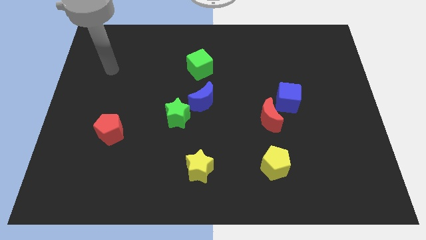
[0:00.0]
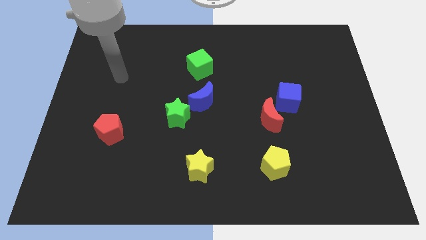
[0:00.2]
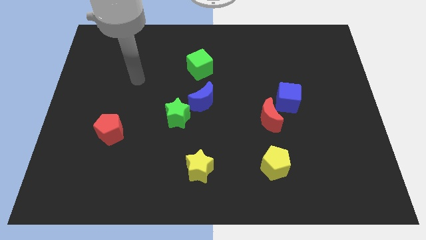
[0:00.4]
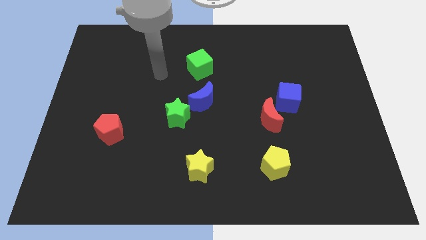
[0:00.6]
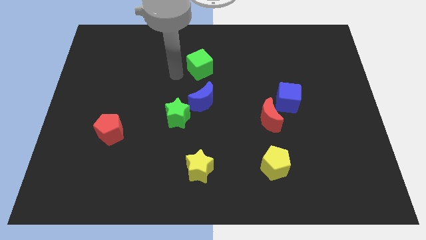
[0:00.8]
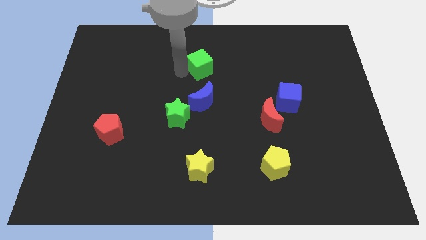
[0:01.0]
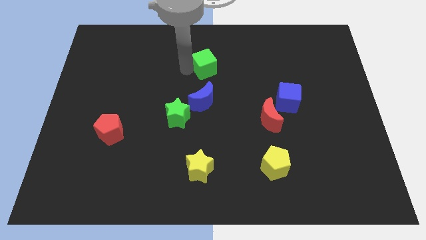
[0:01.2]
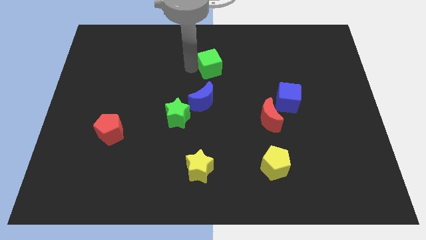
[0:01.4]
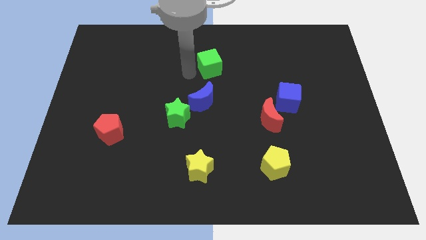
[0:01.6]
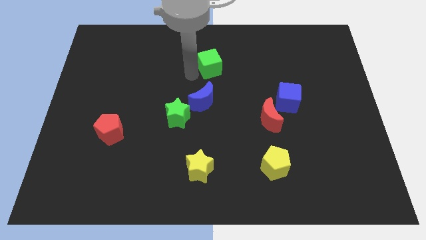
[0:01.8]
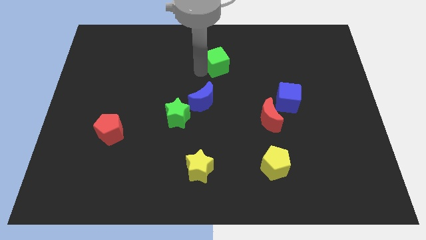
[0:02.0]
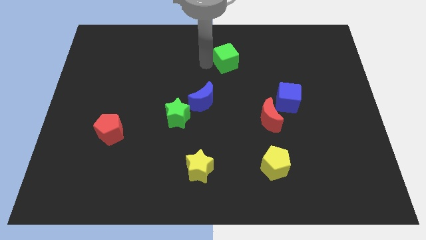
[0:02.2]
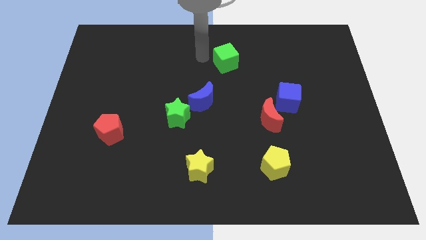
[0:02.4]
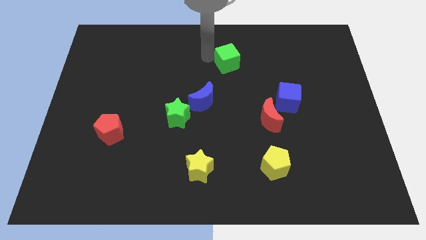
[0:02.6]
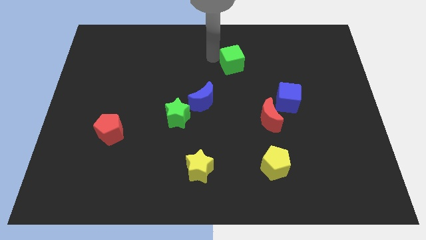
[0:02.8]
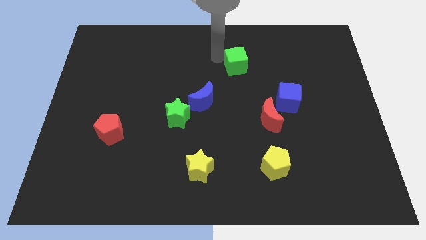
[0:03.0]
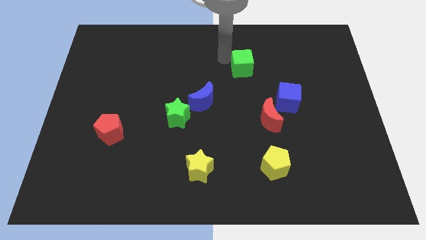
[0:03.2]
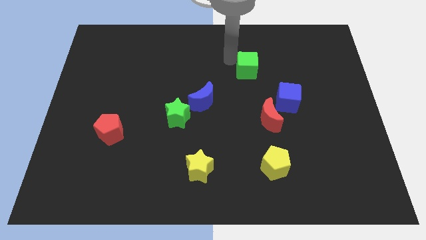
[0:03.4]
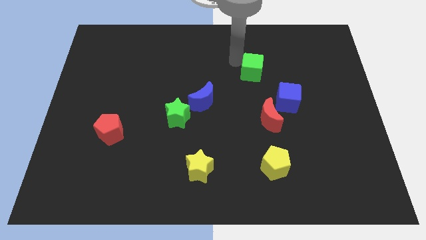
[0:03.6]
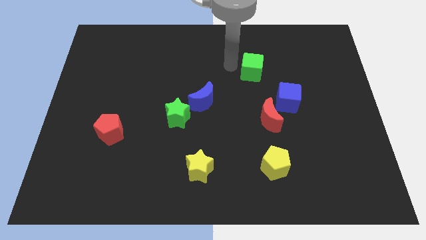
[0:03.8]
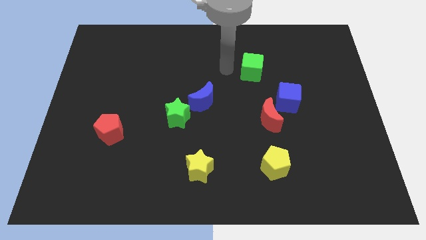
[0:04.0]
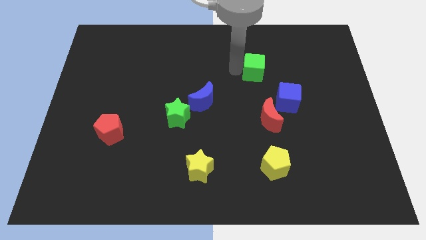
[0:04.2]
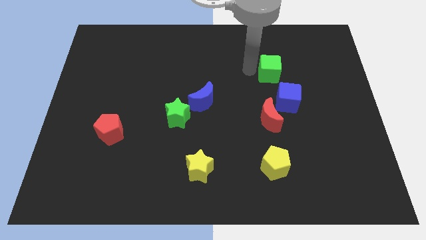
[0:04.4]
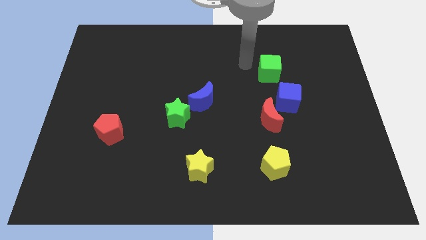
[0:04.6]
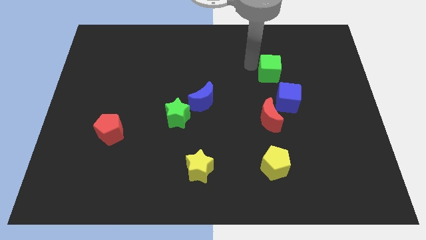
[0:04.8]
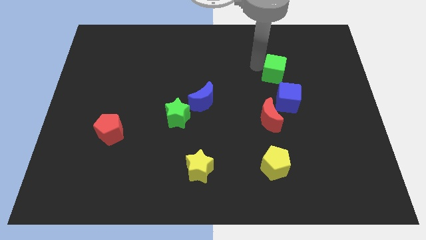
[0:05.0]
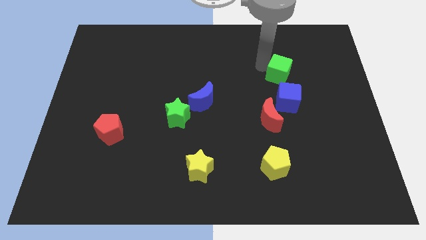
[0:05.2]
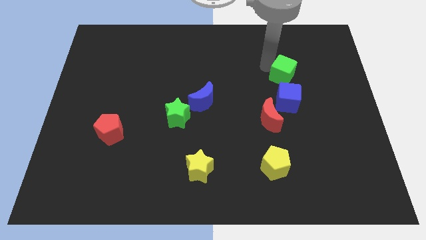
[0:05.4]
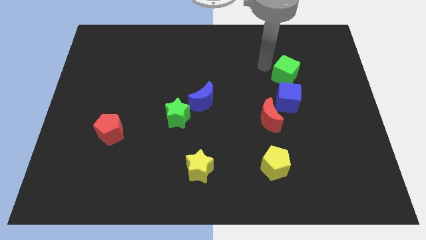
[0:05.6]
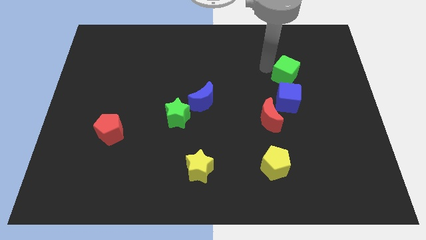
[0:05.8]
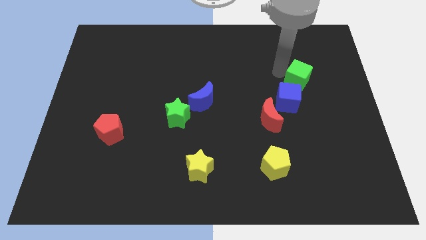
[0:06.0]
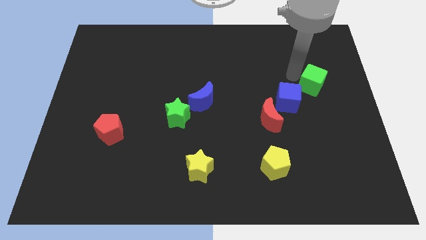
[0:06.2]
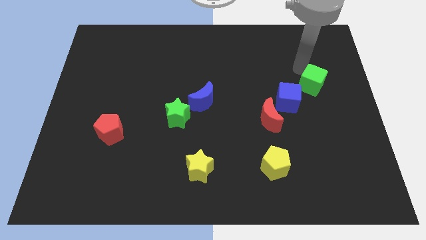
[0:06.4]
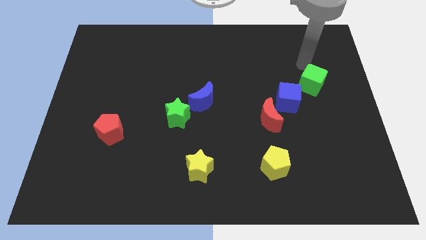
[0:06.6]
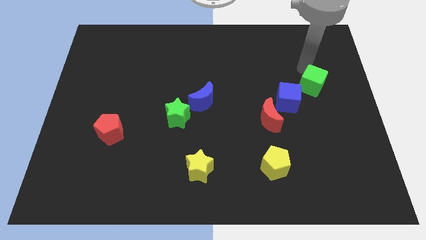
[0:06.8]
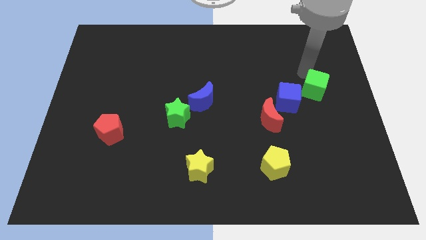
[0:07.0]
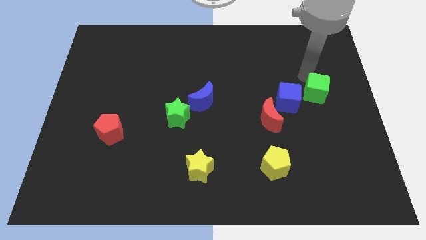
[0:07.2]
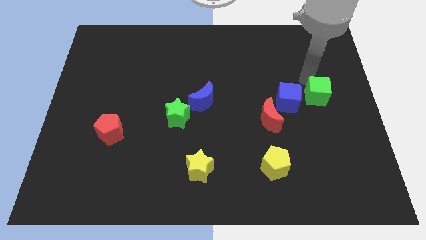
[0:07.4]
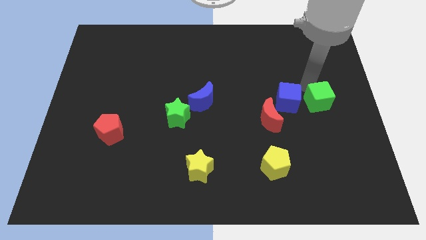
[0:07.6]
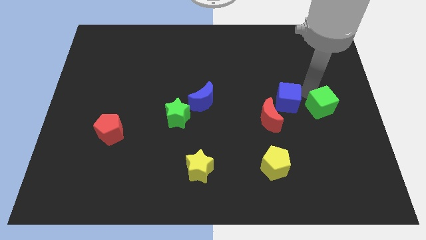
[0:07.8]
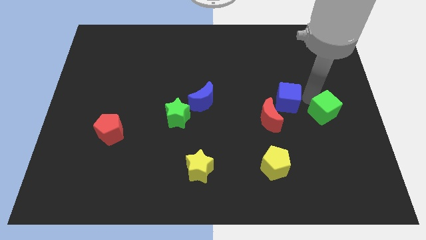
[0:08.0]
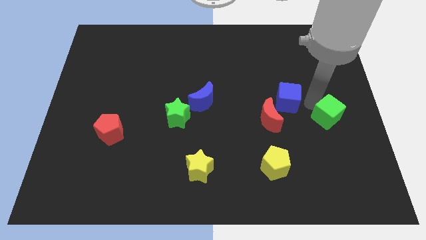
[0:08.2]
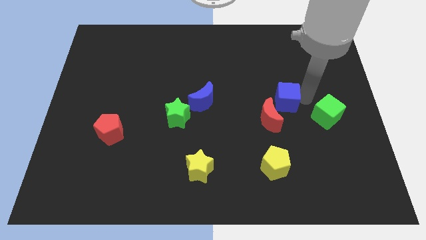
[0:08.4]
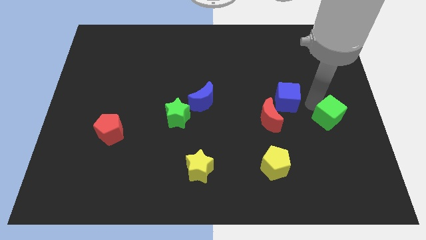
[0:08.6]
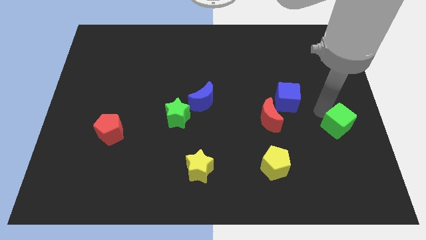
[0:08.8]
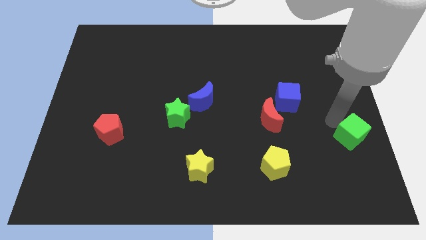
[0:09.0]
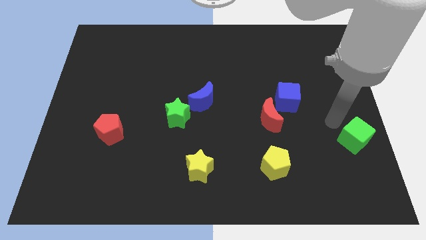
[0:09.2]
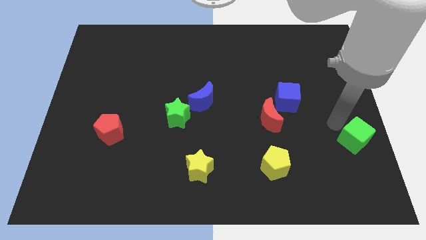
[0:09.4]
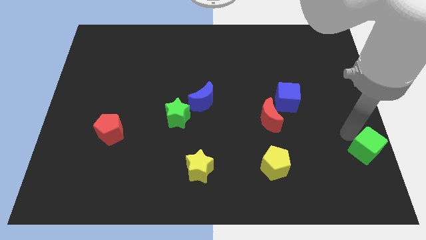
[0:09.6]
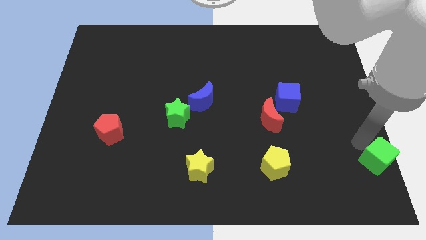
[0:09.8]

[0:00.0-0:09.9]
put the green cube to the lower right corner

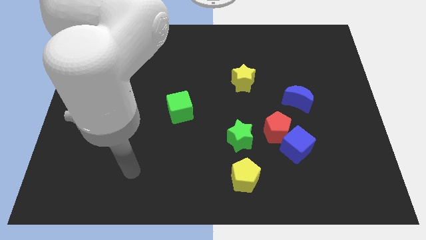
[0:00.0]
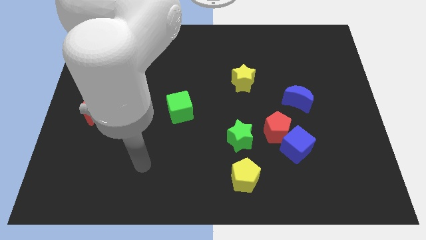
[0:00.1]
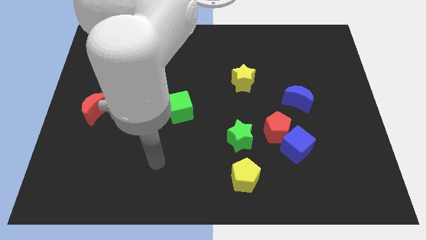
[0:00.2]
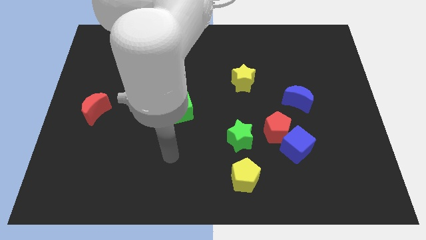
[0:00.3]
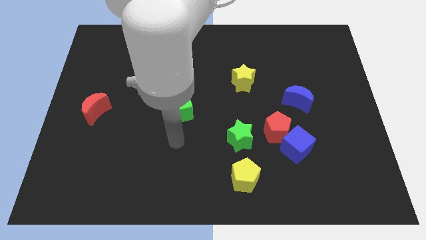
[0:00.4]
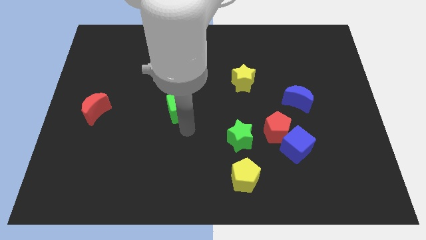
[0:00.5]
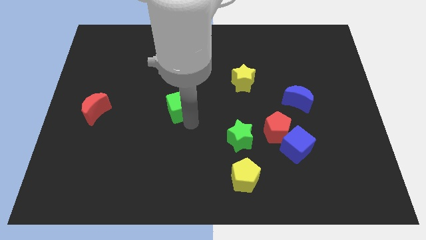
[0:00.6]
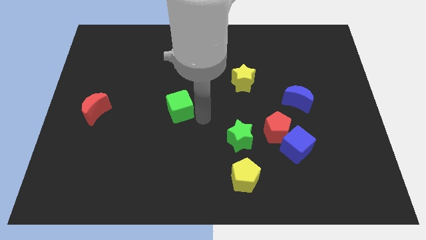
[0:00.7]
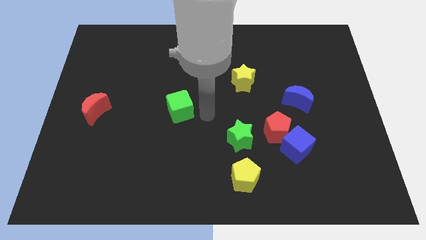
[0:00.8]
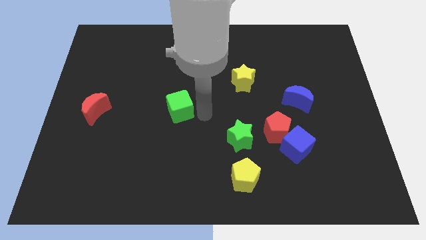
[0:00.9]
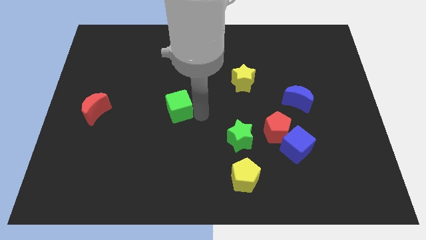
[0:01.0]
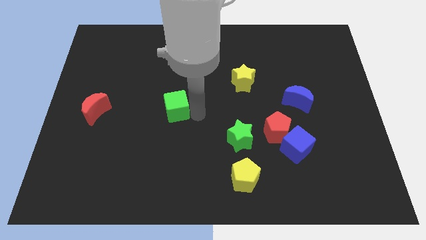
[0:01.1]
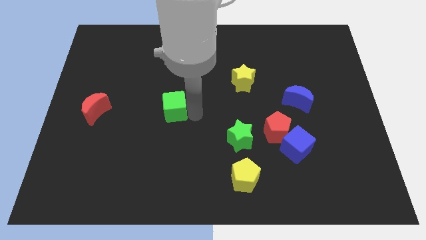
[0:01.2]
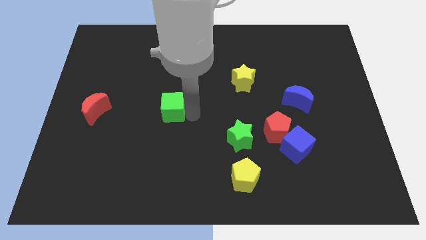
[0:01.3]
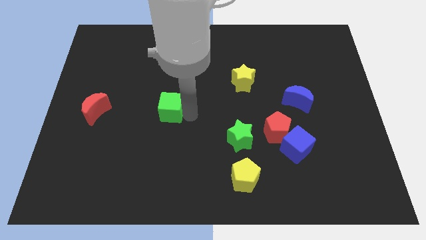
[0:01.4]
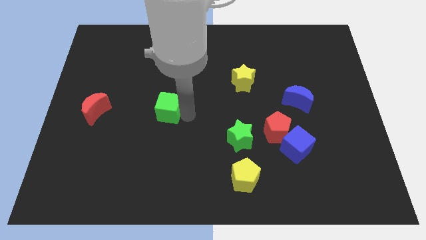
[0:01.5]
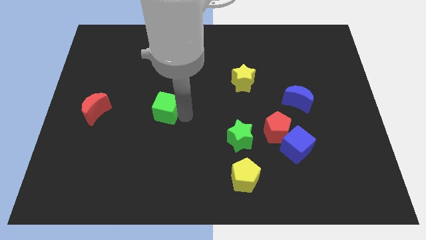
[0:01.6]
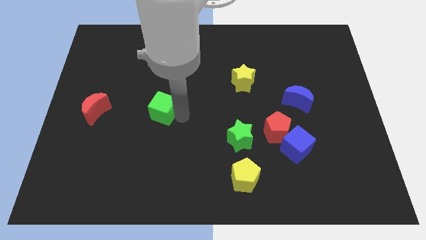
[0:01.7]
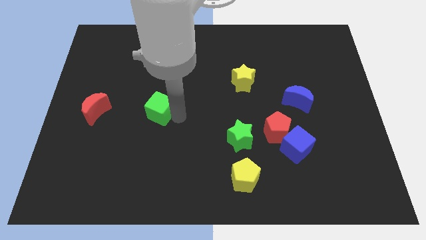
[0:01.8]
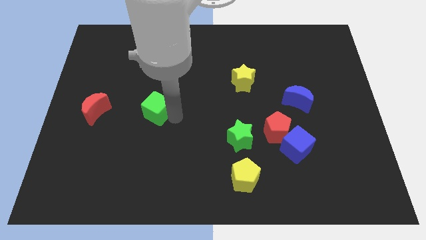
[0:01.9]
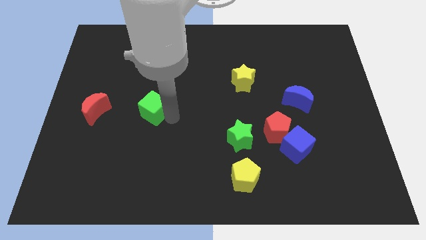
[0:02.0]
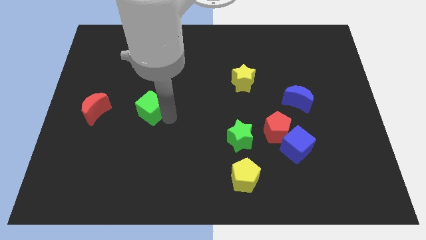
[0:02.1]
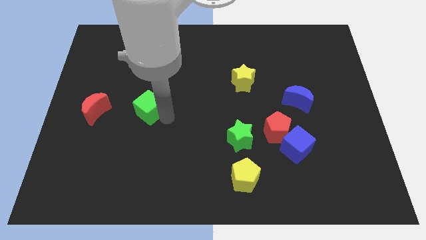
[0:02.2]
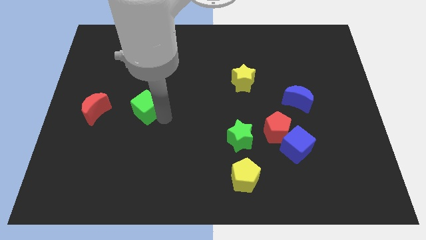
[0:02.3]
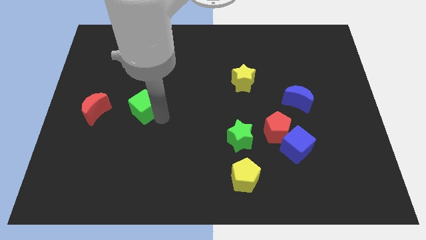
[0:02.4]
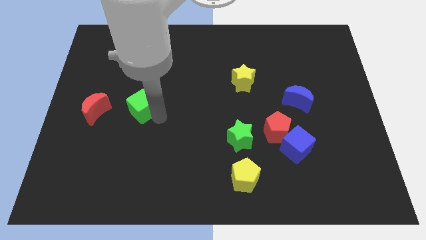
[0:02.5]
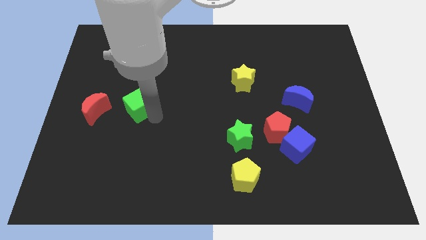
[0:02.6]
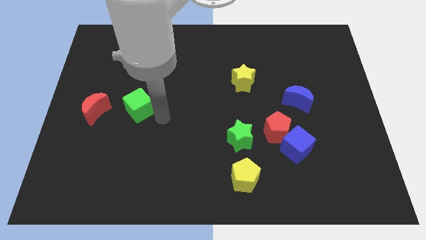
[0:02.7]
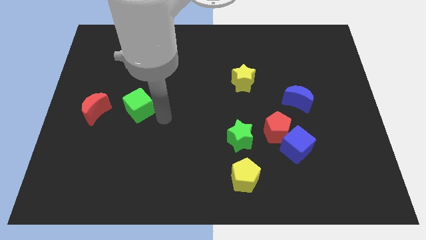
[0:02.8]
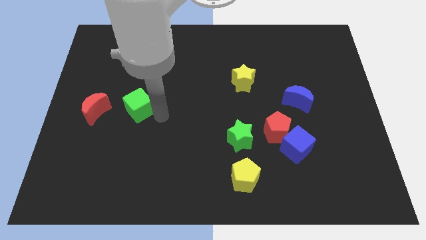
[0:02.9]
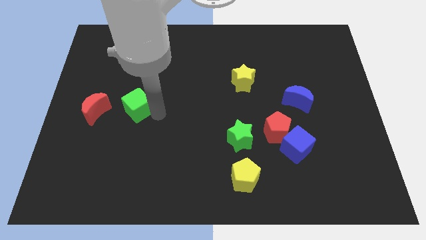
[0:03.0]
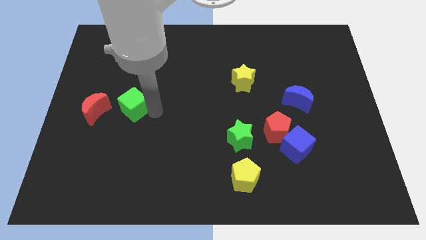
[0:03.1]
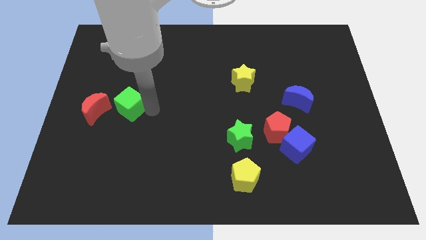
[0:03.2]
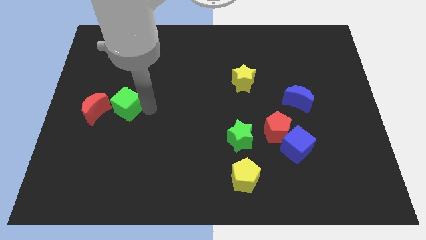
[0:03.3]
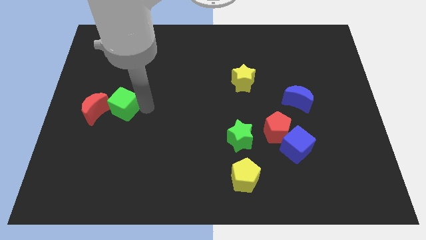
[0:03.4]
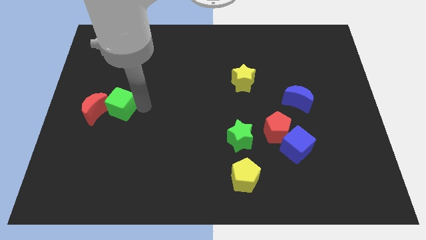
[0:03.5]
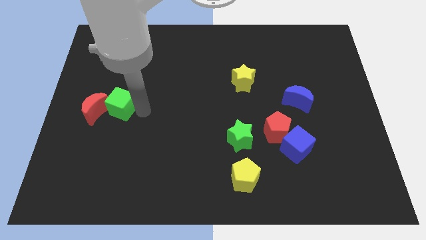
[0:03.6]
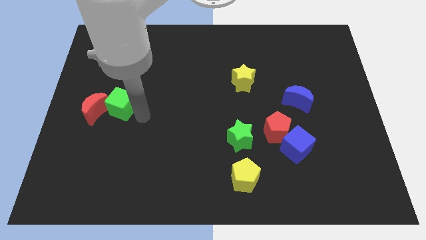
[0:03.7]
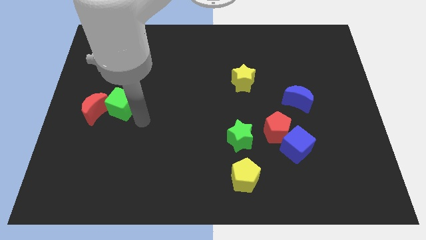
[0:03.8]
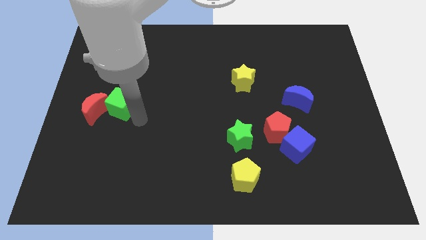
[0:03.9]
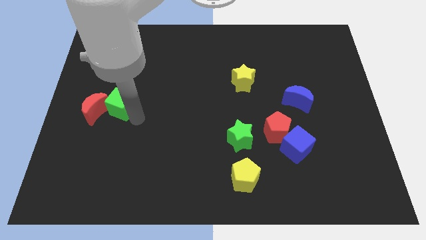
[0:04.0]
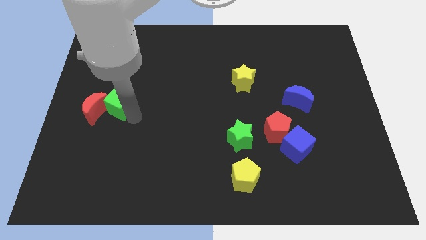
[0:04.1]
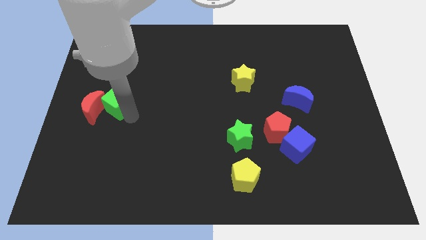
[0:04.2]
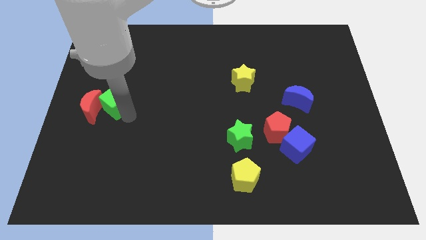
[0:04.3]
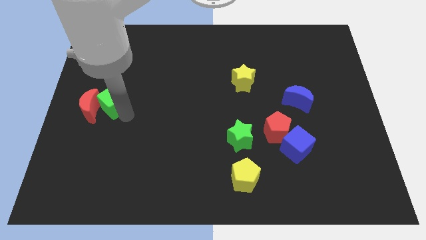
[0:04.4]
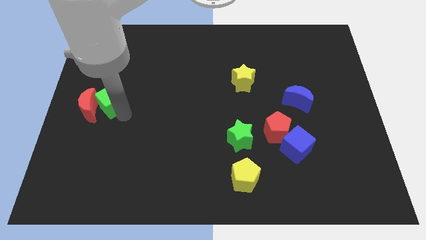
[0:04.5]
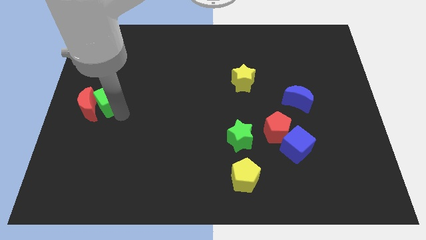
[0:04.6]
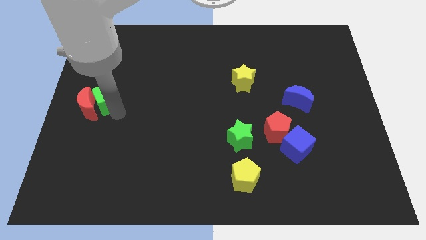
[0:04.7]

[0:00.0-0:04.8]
move the green cube to the left side of the board
